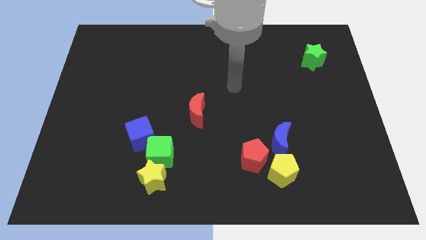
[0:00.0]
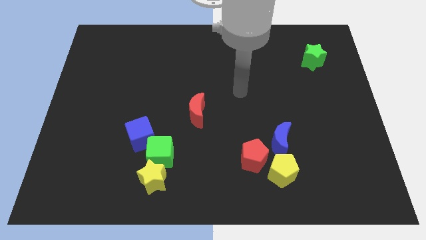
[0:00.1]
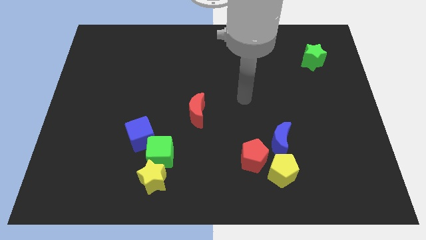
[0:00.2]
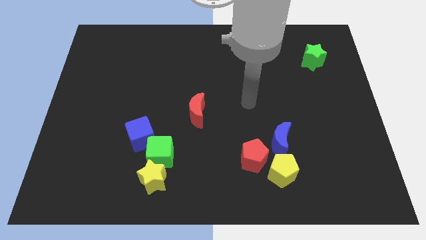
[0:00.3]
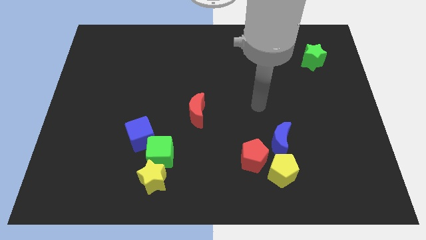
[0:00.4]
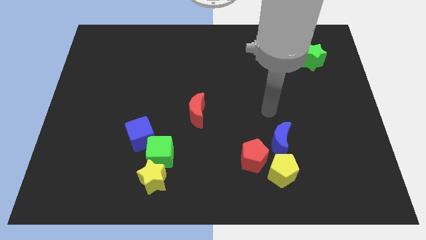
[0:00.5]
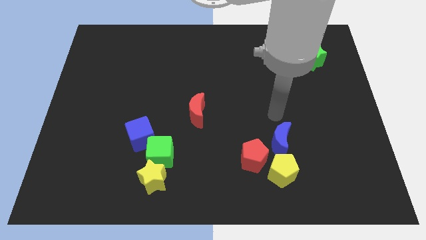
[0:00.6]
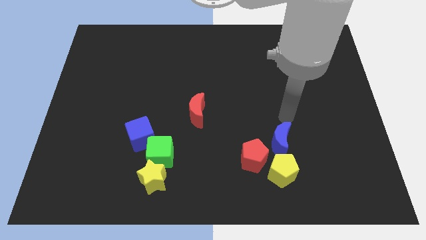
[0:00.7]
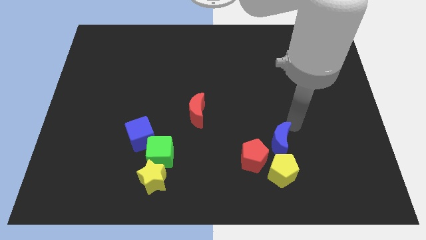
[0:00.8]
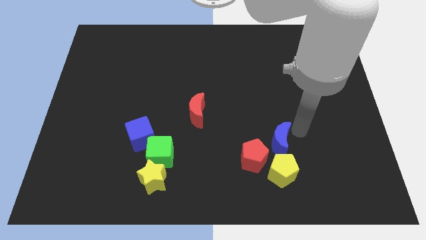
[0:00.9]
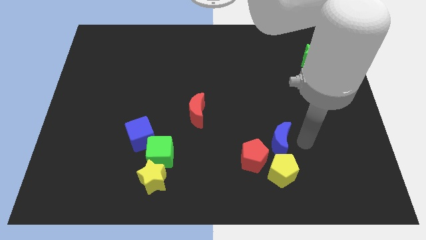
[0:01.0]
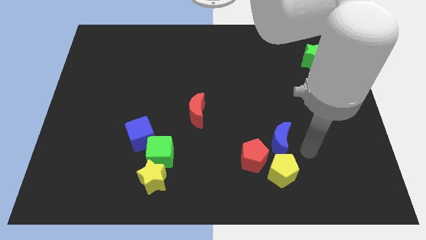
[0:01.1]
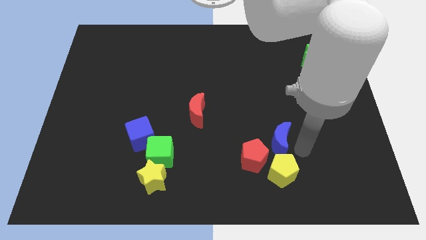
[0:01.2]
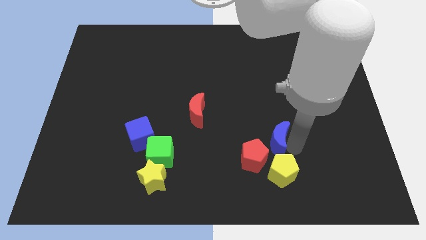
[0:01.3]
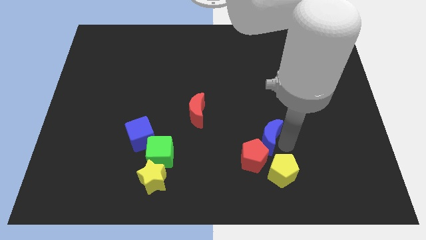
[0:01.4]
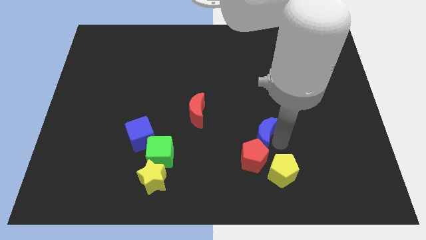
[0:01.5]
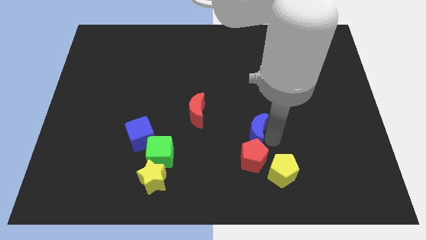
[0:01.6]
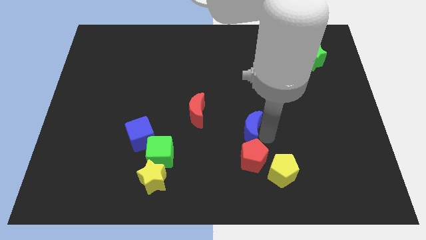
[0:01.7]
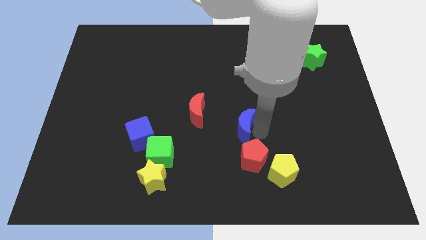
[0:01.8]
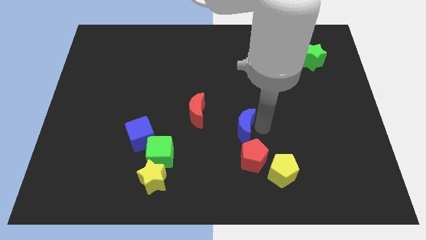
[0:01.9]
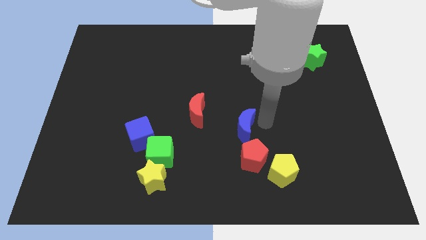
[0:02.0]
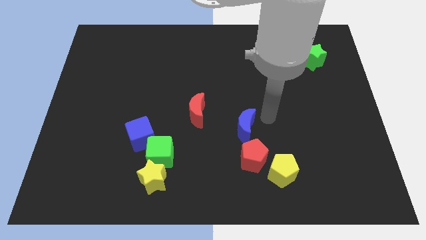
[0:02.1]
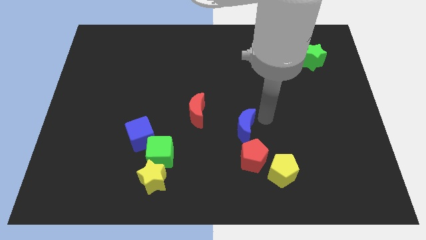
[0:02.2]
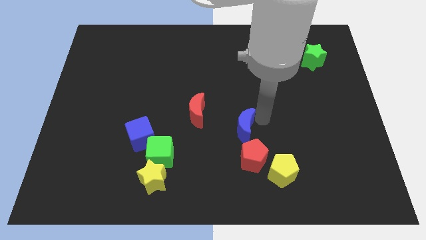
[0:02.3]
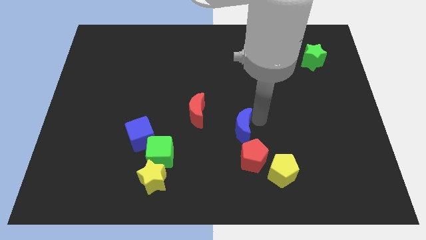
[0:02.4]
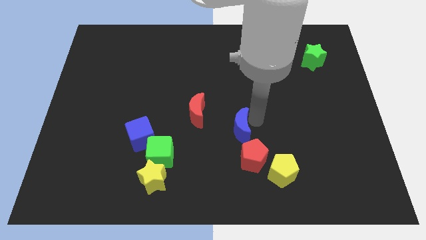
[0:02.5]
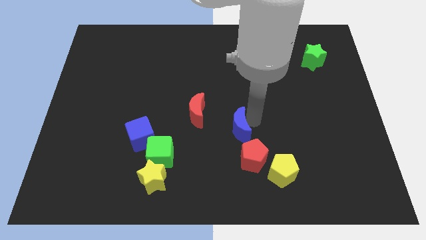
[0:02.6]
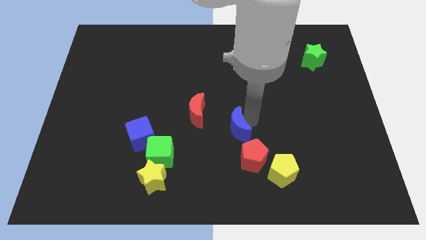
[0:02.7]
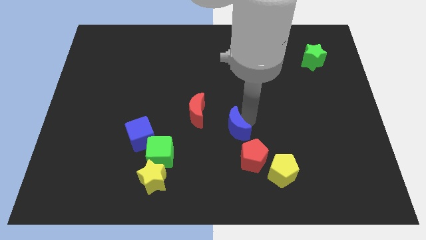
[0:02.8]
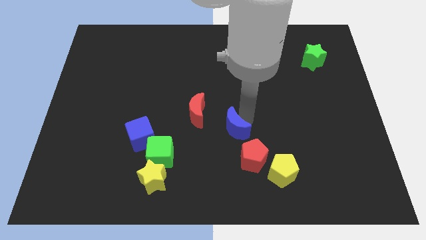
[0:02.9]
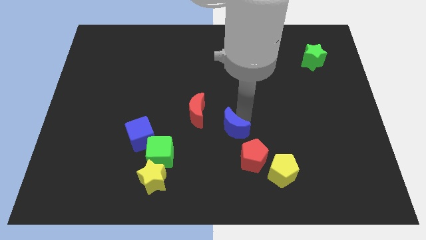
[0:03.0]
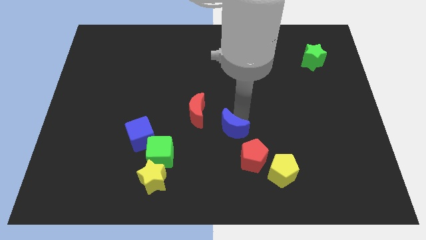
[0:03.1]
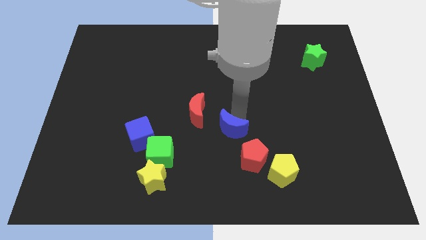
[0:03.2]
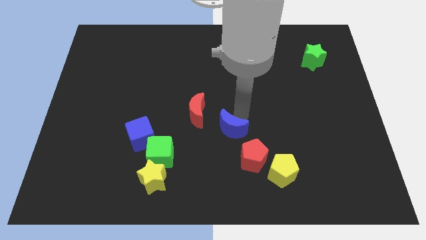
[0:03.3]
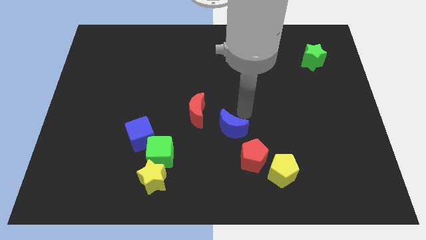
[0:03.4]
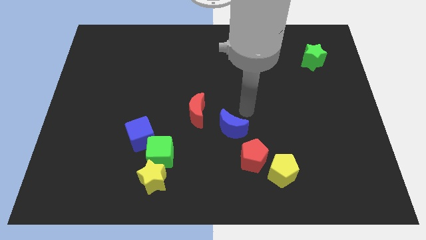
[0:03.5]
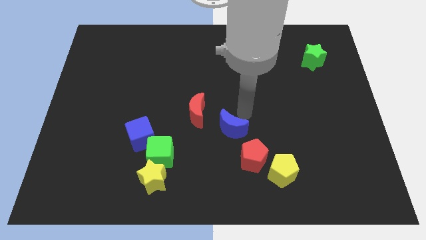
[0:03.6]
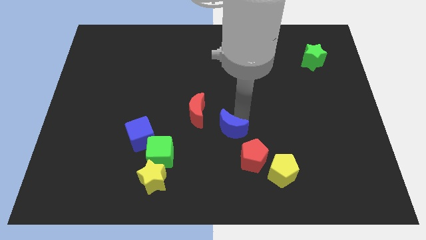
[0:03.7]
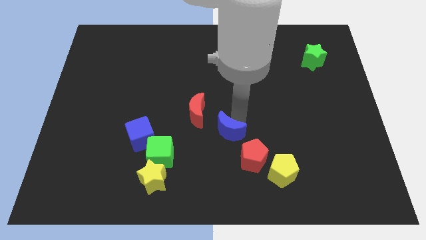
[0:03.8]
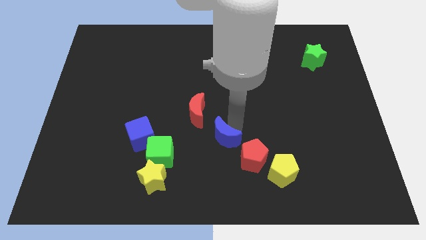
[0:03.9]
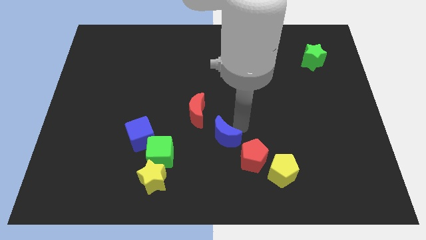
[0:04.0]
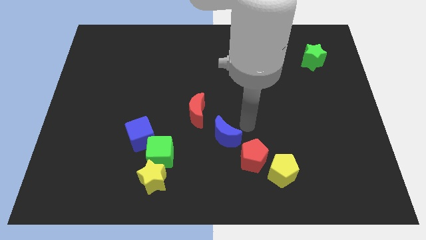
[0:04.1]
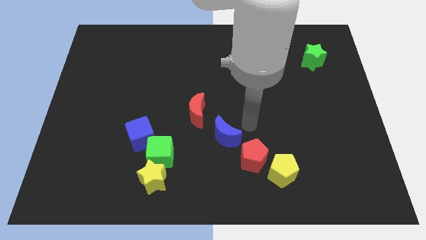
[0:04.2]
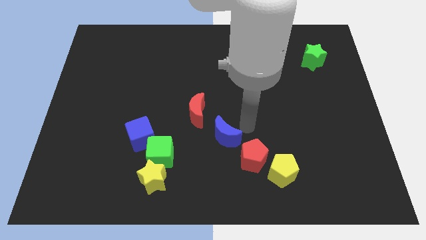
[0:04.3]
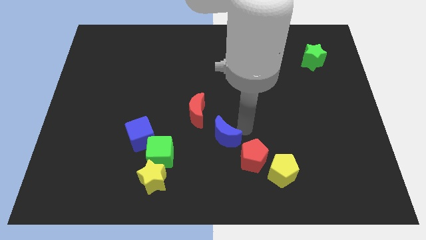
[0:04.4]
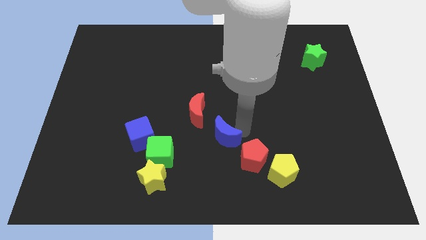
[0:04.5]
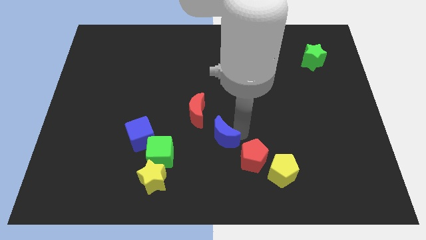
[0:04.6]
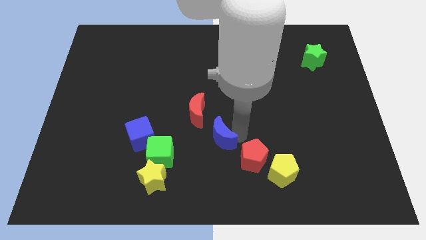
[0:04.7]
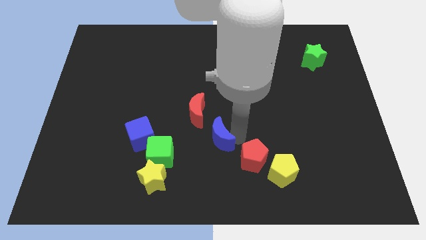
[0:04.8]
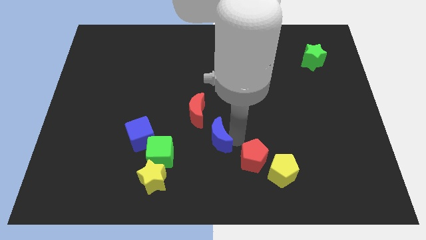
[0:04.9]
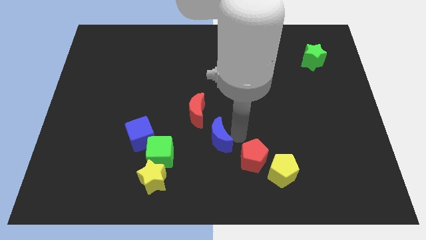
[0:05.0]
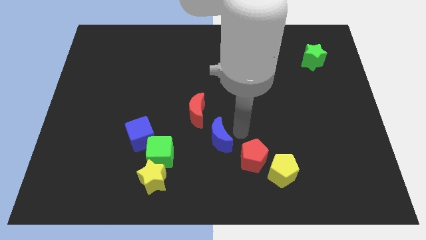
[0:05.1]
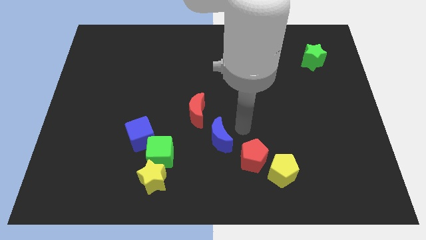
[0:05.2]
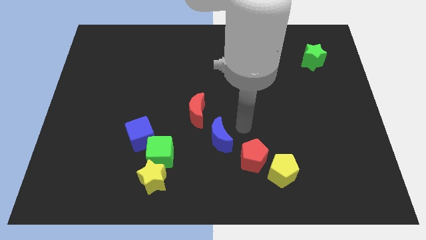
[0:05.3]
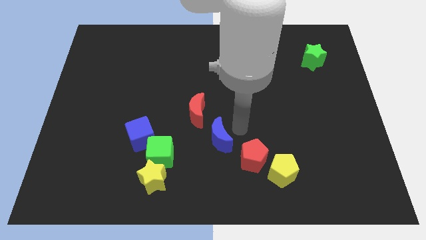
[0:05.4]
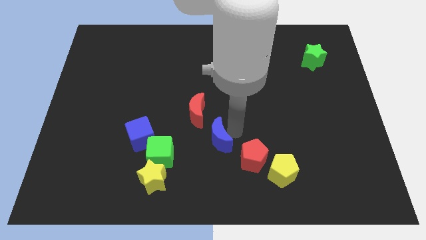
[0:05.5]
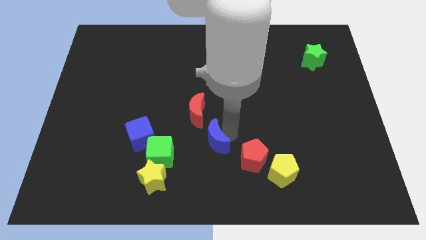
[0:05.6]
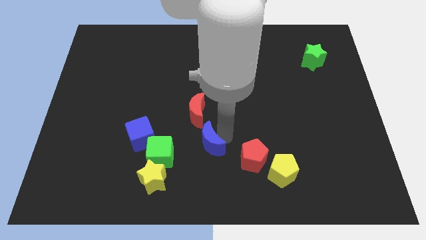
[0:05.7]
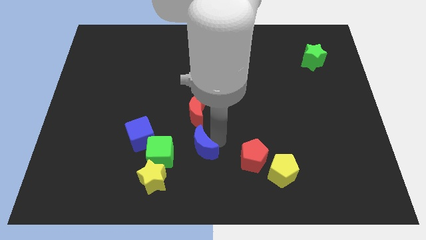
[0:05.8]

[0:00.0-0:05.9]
put the blue moon diagonally up and to the right of the yellow star

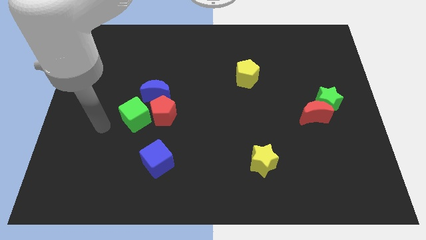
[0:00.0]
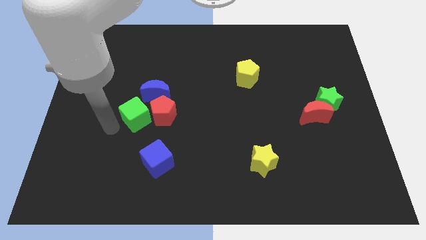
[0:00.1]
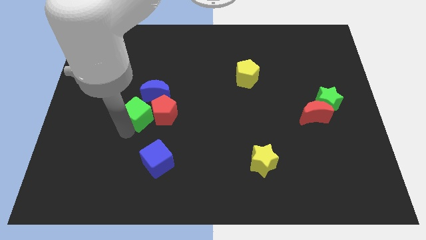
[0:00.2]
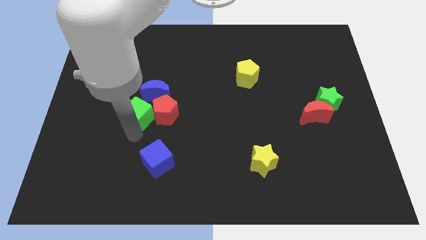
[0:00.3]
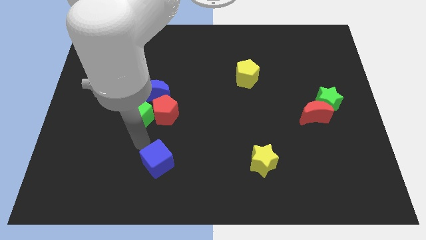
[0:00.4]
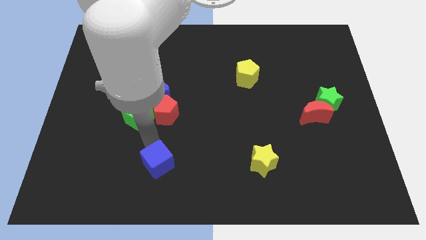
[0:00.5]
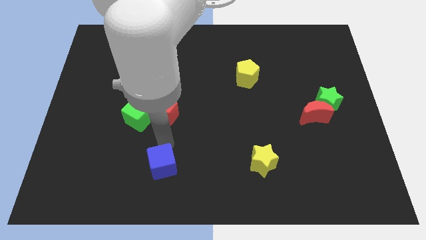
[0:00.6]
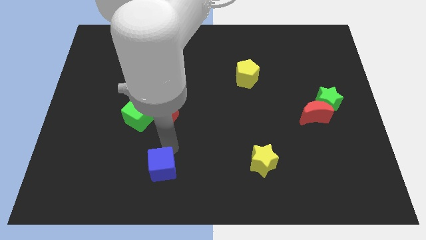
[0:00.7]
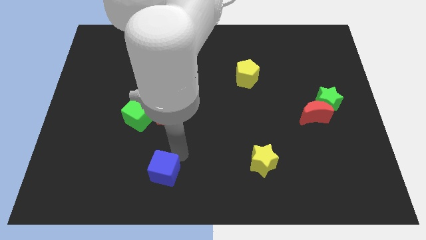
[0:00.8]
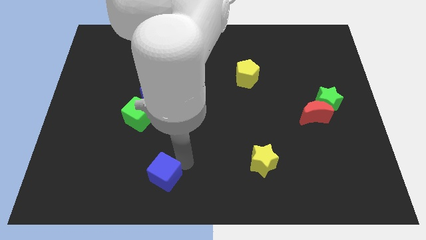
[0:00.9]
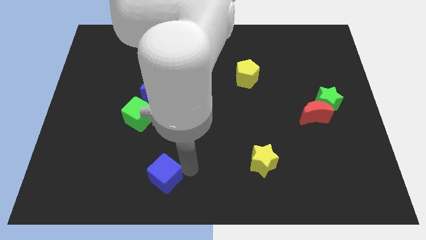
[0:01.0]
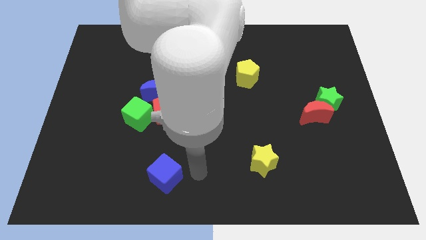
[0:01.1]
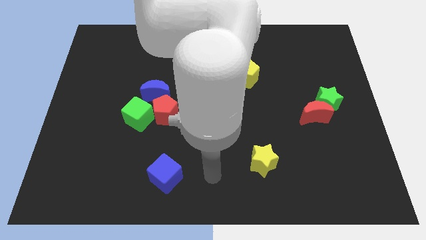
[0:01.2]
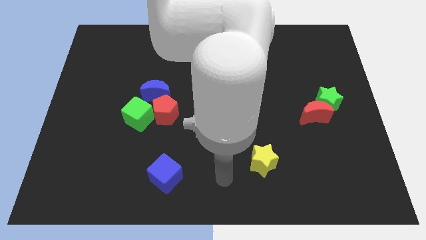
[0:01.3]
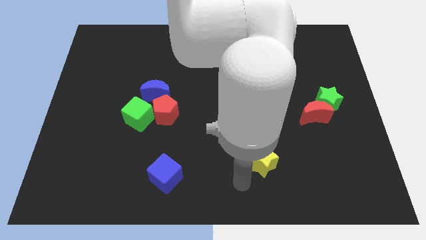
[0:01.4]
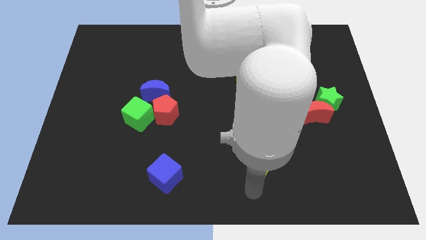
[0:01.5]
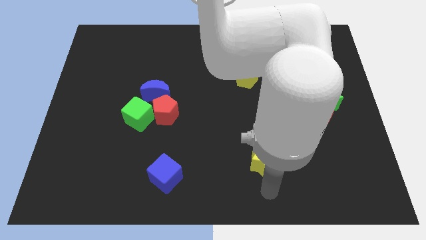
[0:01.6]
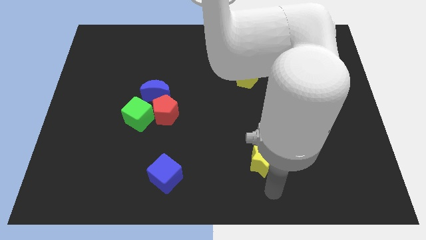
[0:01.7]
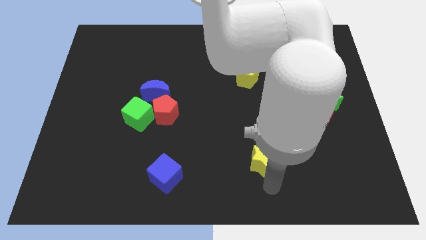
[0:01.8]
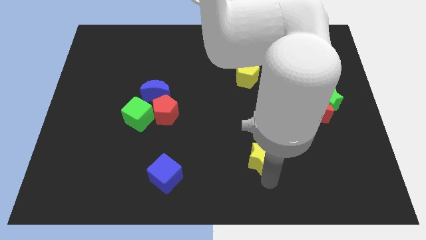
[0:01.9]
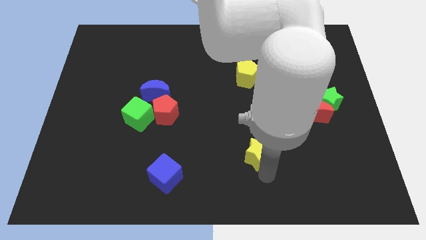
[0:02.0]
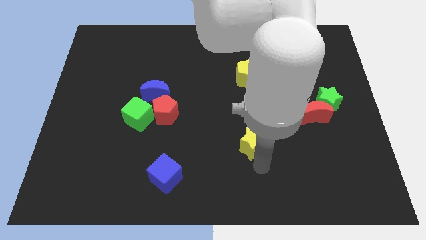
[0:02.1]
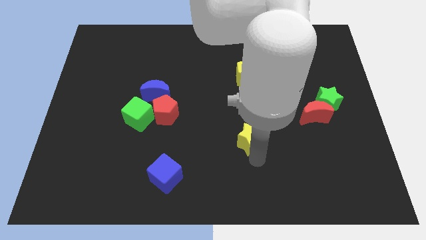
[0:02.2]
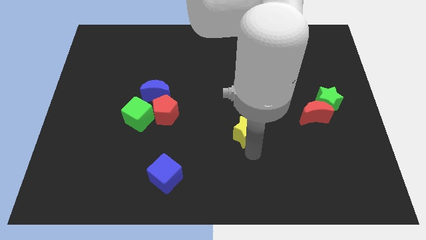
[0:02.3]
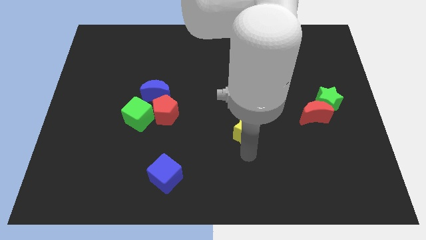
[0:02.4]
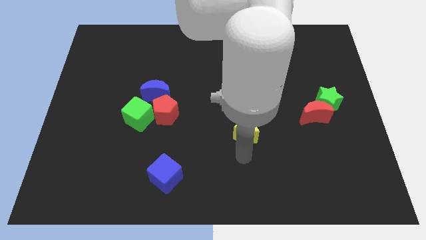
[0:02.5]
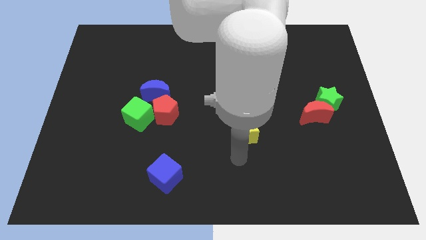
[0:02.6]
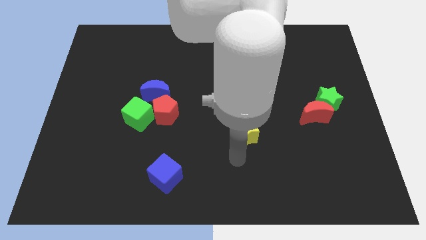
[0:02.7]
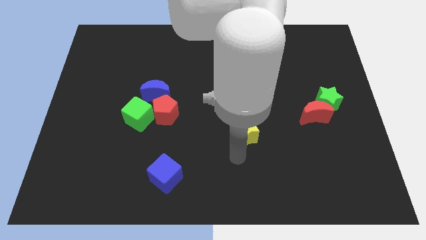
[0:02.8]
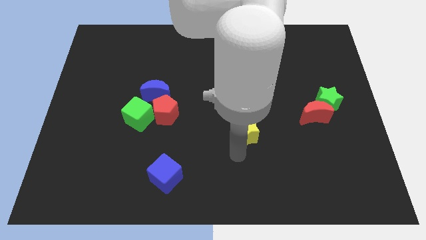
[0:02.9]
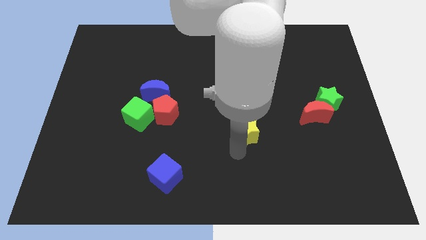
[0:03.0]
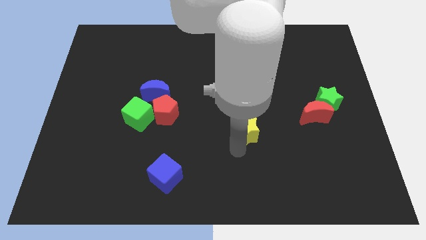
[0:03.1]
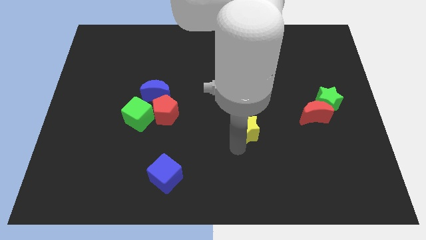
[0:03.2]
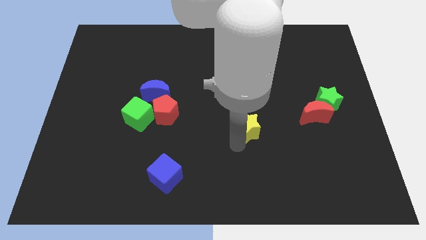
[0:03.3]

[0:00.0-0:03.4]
push the yellow star to the bottom of the yellow pentagon
